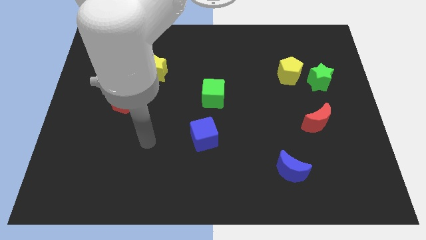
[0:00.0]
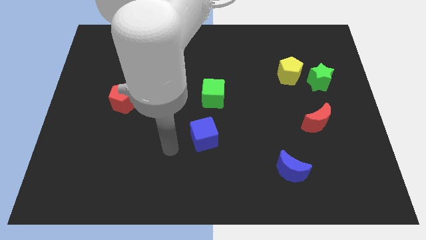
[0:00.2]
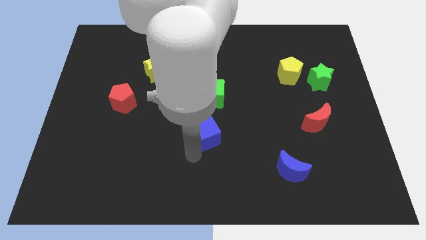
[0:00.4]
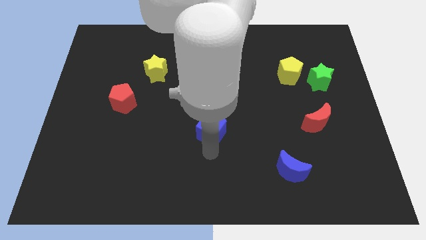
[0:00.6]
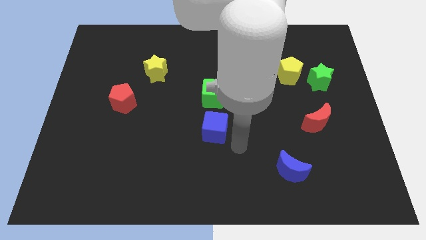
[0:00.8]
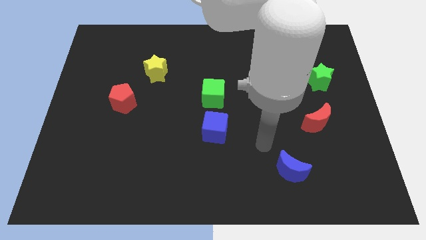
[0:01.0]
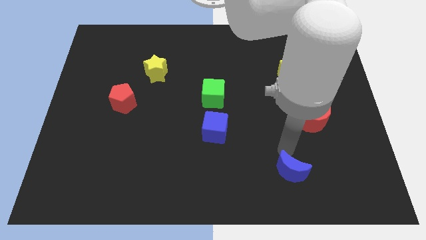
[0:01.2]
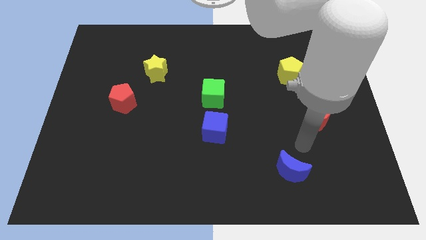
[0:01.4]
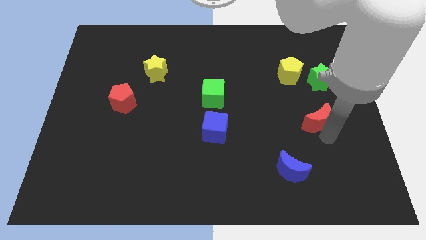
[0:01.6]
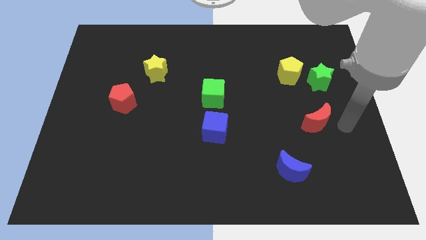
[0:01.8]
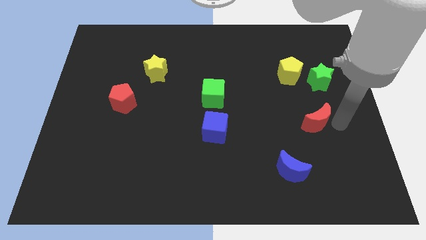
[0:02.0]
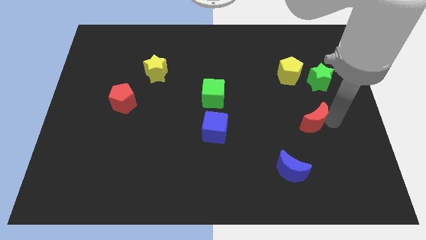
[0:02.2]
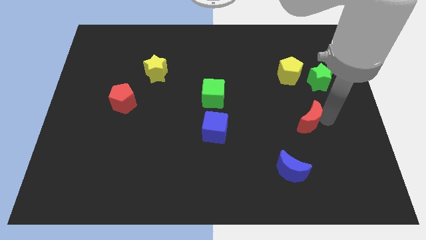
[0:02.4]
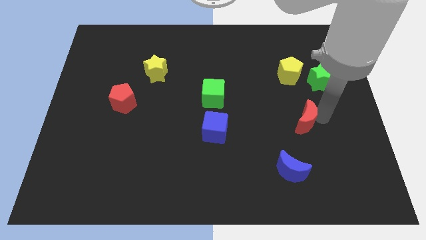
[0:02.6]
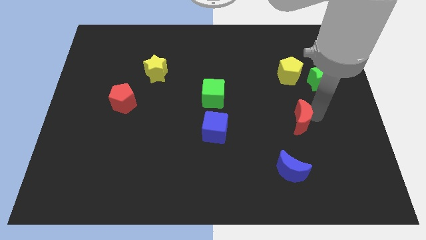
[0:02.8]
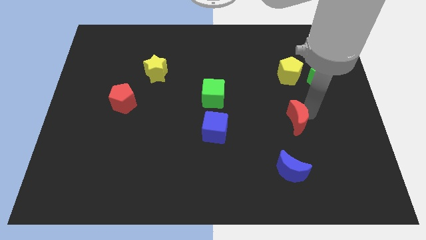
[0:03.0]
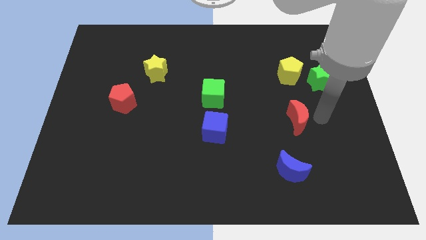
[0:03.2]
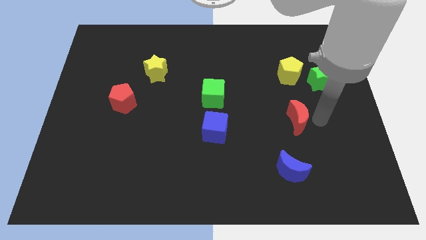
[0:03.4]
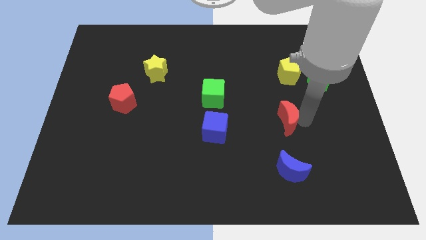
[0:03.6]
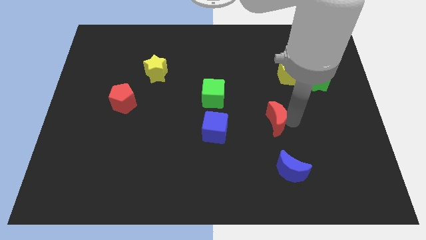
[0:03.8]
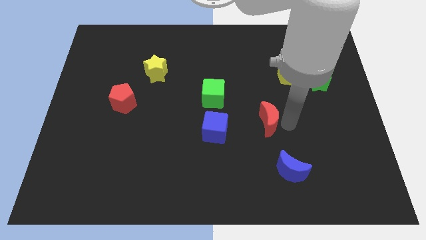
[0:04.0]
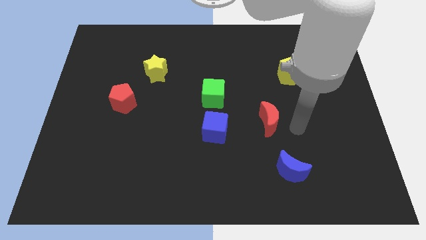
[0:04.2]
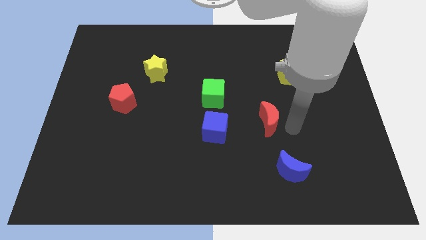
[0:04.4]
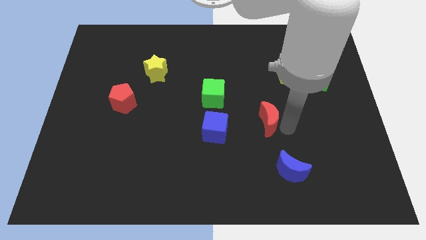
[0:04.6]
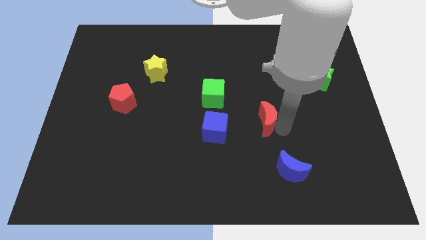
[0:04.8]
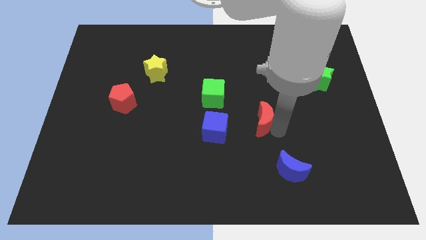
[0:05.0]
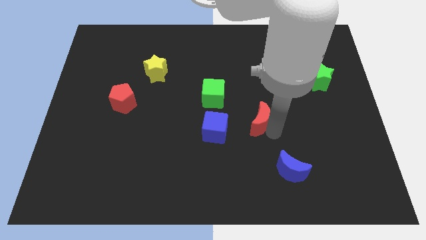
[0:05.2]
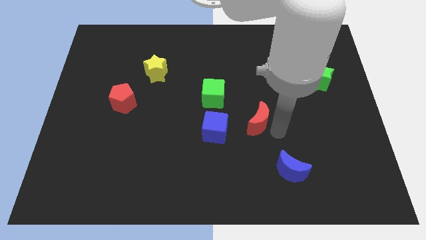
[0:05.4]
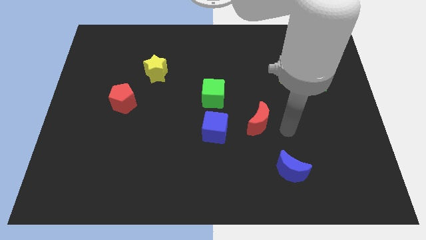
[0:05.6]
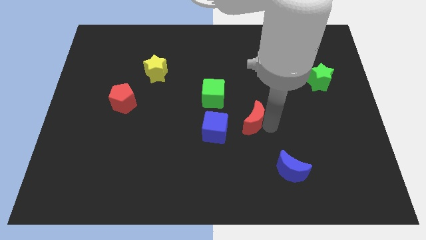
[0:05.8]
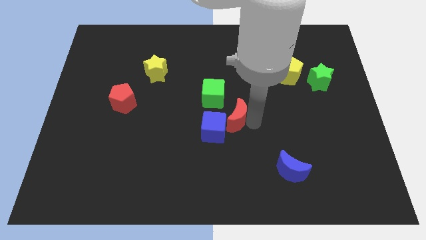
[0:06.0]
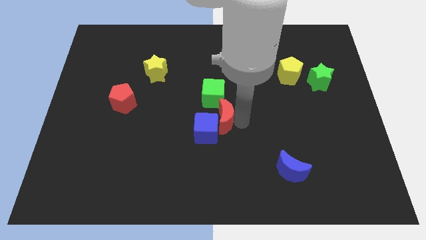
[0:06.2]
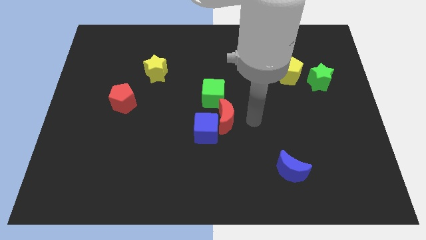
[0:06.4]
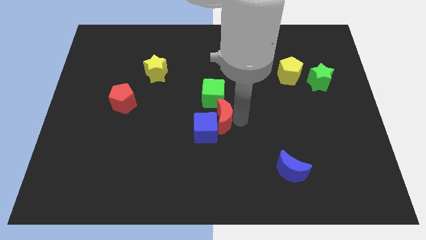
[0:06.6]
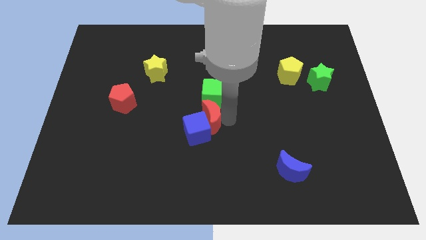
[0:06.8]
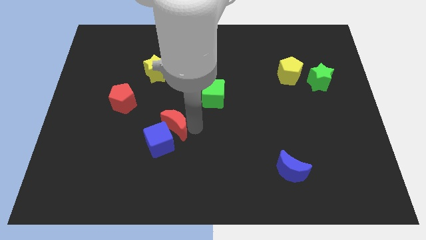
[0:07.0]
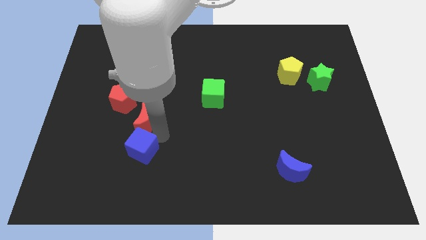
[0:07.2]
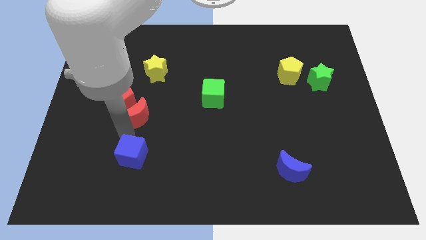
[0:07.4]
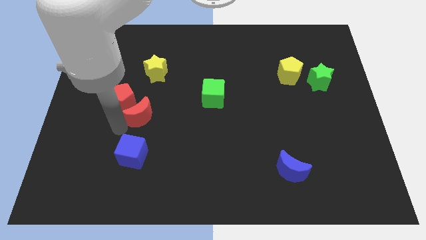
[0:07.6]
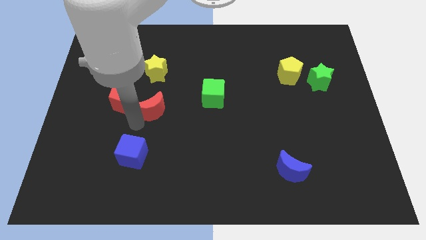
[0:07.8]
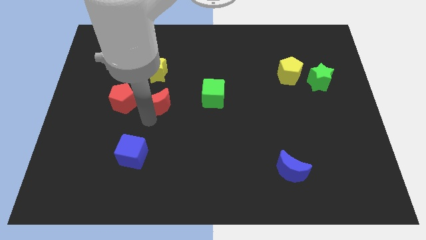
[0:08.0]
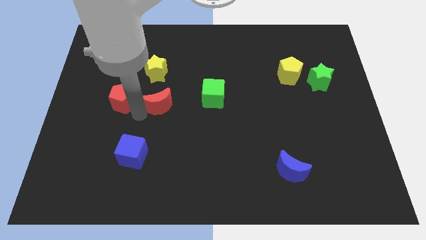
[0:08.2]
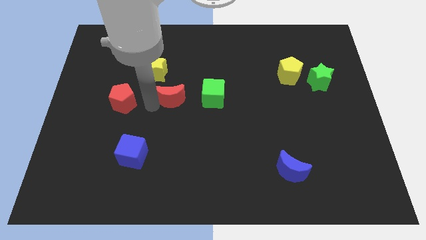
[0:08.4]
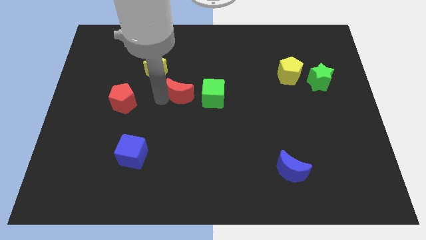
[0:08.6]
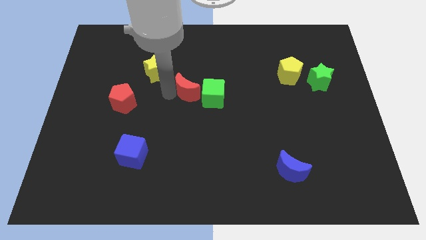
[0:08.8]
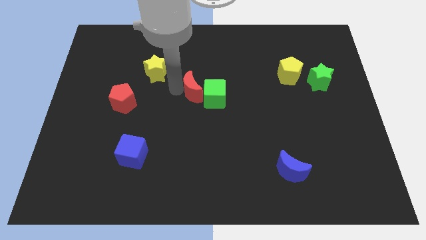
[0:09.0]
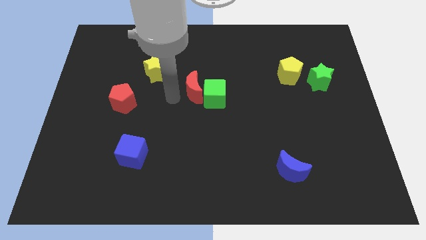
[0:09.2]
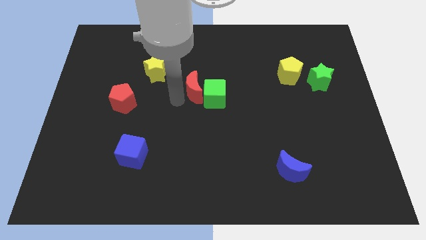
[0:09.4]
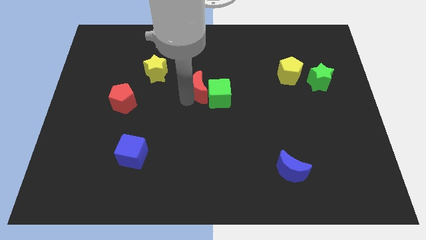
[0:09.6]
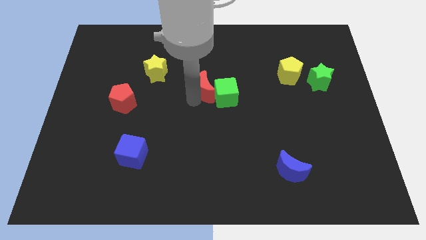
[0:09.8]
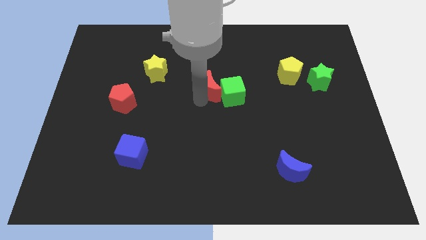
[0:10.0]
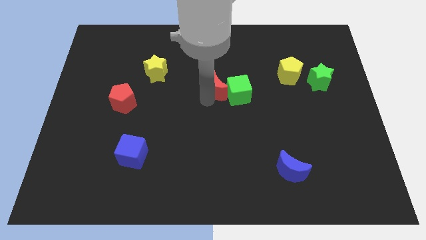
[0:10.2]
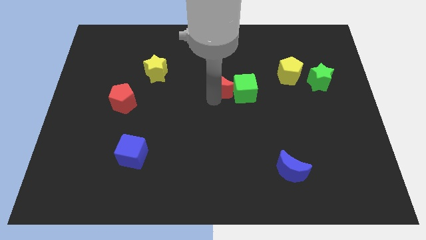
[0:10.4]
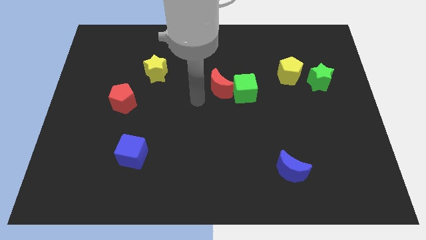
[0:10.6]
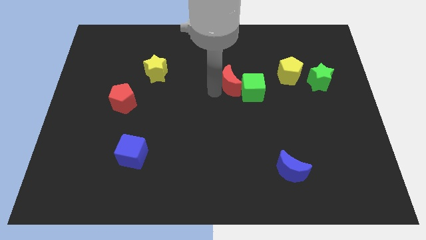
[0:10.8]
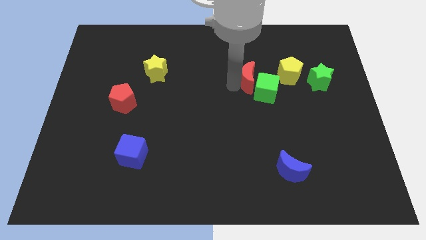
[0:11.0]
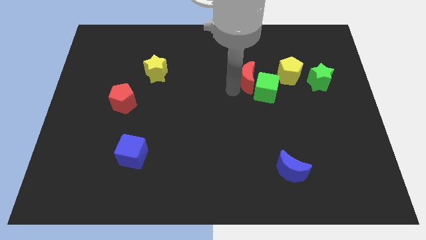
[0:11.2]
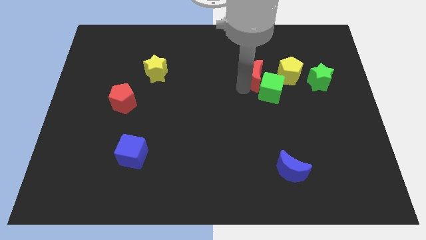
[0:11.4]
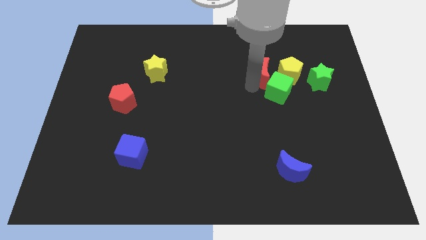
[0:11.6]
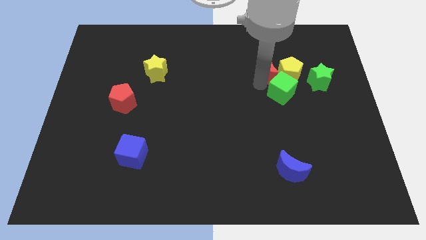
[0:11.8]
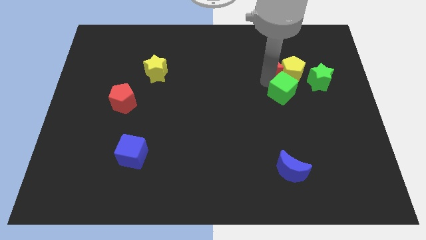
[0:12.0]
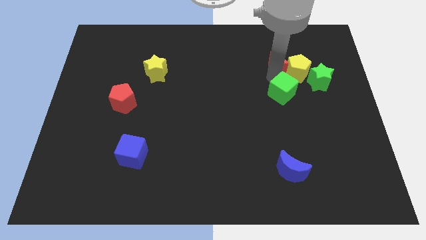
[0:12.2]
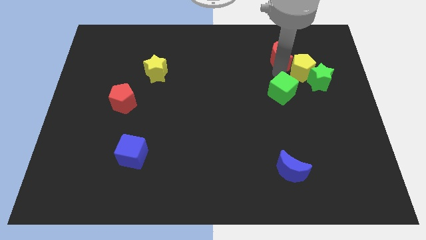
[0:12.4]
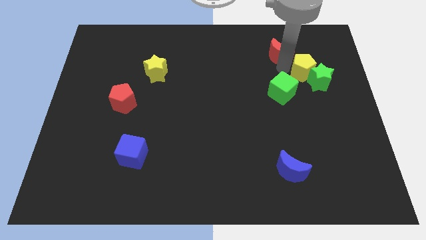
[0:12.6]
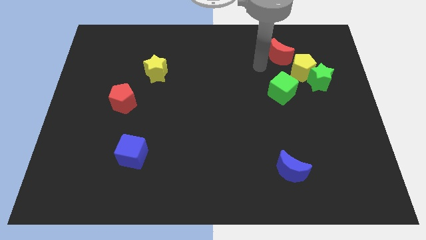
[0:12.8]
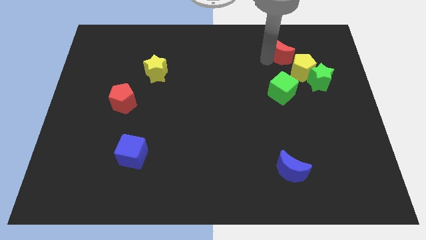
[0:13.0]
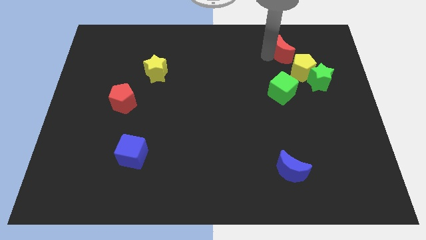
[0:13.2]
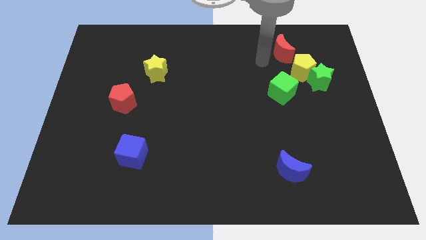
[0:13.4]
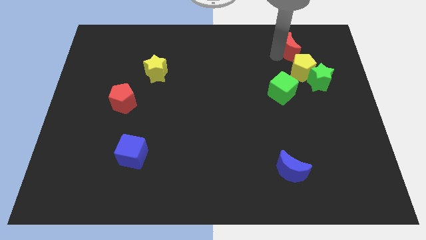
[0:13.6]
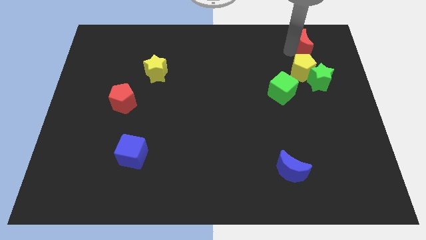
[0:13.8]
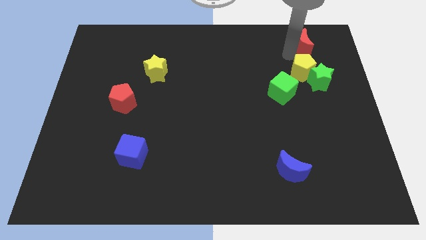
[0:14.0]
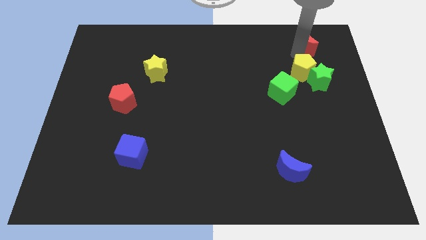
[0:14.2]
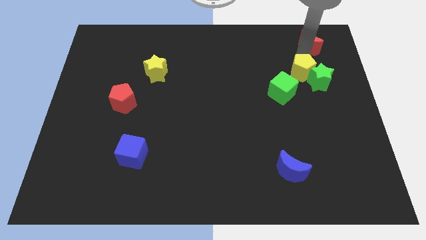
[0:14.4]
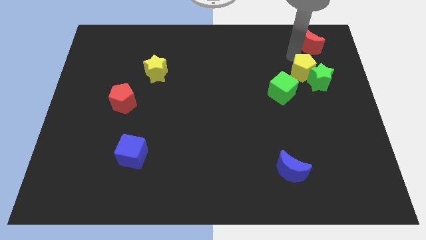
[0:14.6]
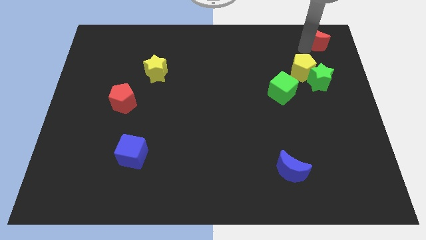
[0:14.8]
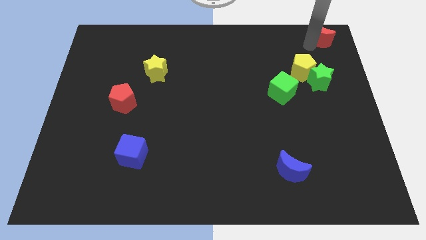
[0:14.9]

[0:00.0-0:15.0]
push the red moon to the top right
